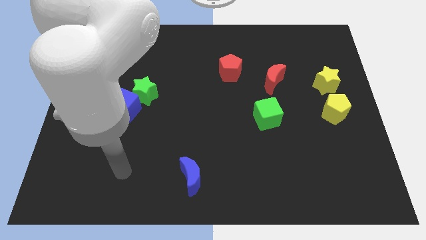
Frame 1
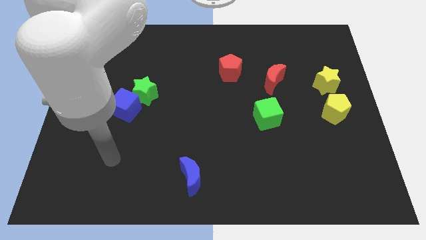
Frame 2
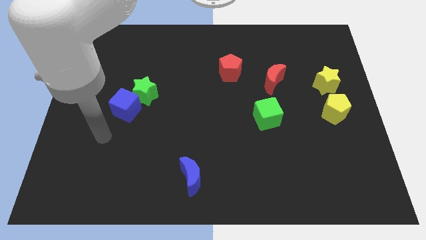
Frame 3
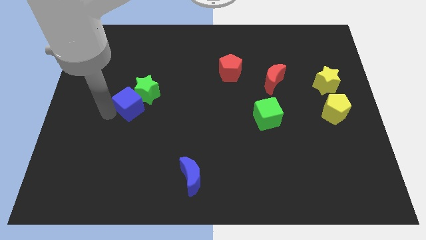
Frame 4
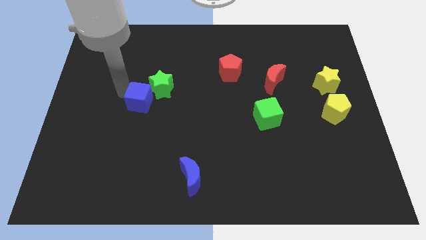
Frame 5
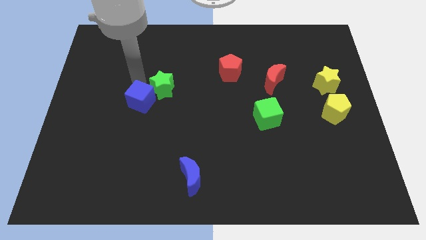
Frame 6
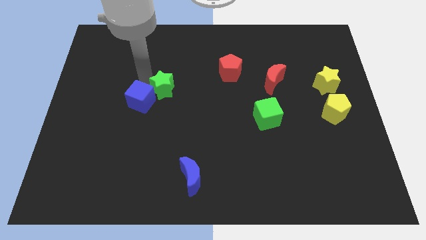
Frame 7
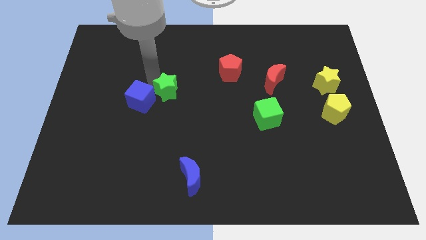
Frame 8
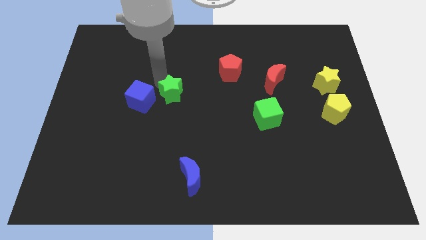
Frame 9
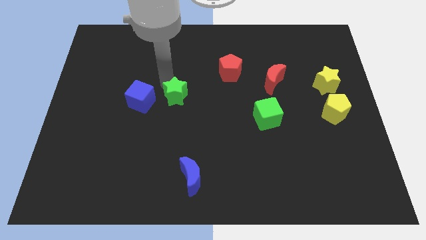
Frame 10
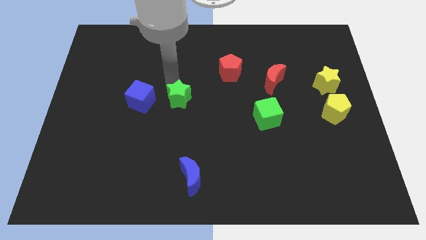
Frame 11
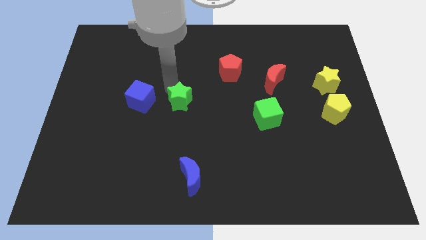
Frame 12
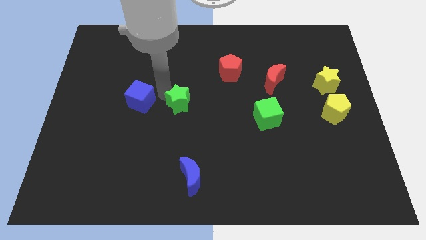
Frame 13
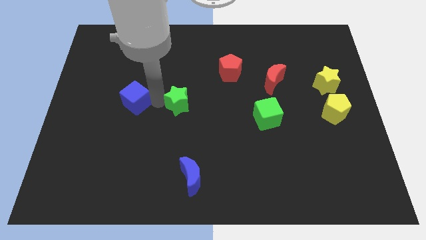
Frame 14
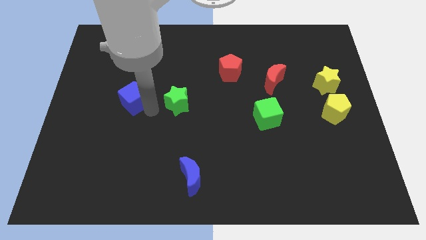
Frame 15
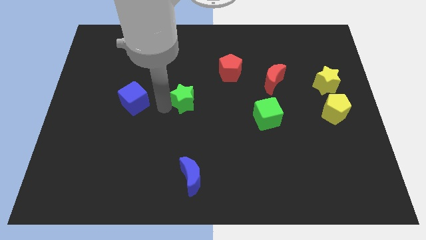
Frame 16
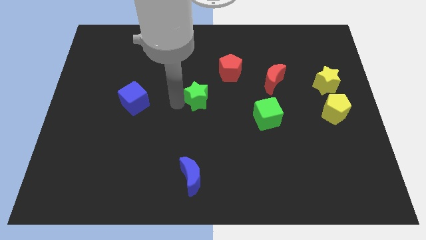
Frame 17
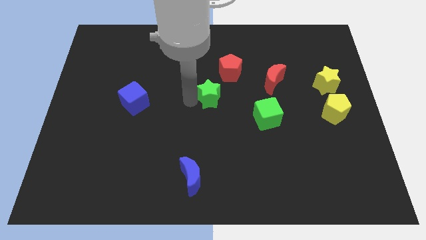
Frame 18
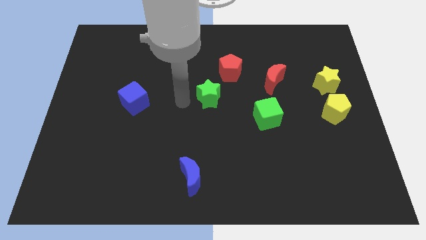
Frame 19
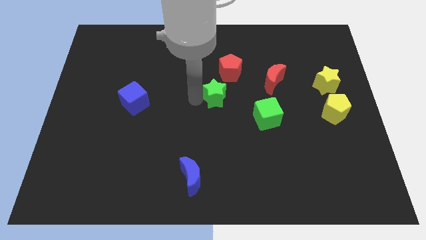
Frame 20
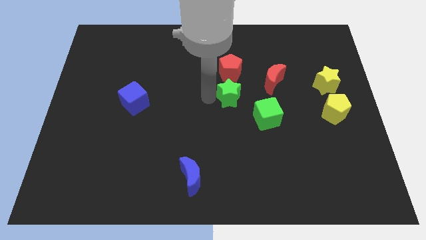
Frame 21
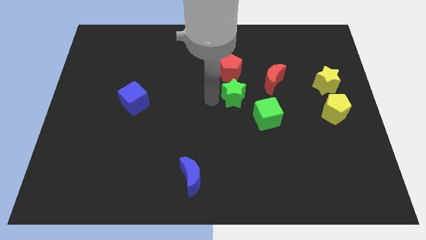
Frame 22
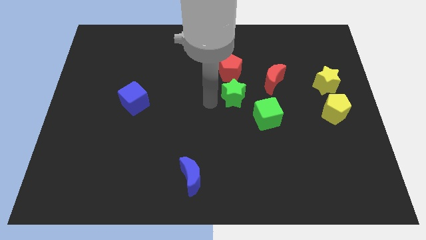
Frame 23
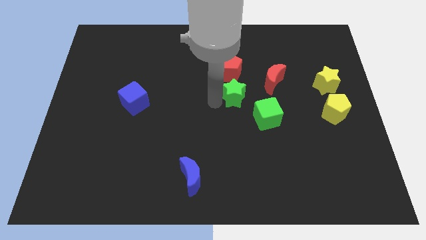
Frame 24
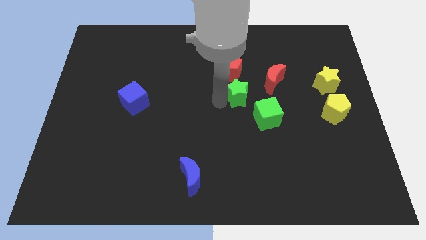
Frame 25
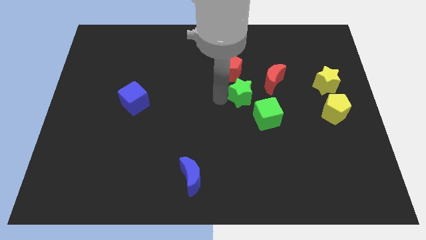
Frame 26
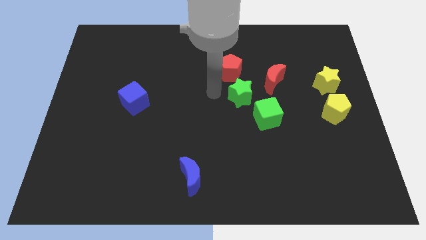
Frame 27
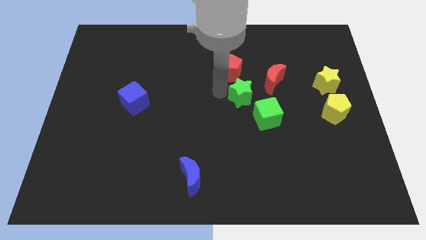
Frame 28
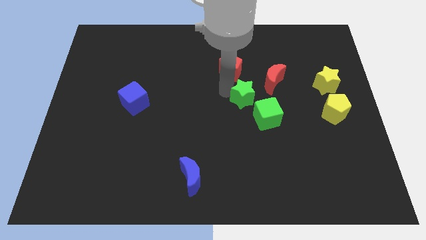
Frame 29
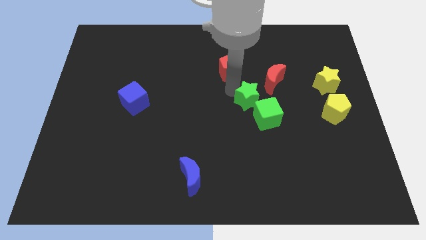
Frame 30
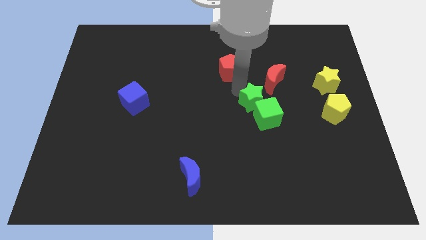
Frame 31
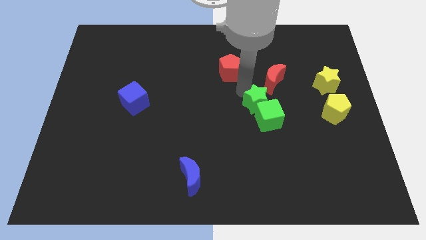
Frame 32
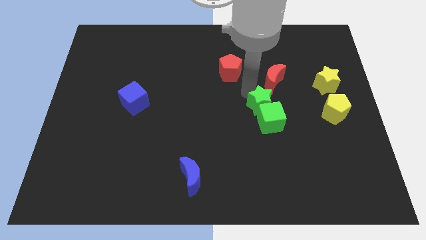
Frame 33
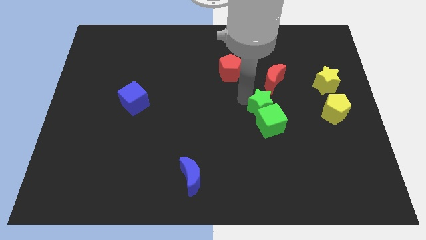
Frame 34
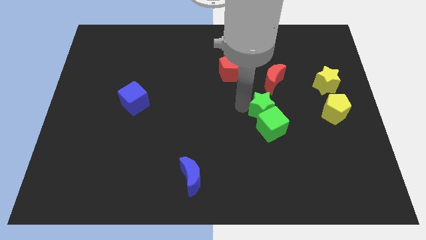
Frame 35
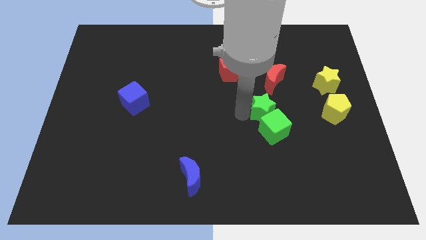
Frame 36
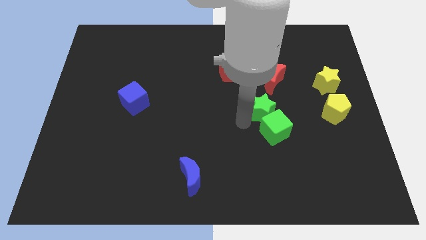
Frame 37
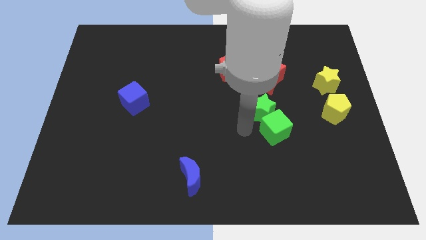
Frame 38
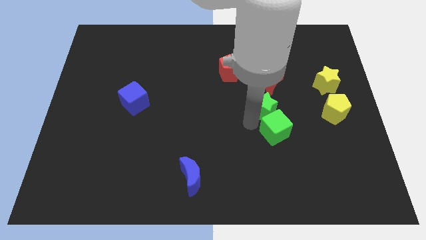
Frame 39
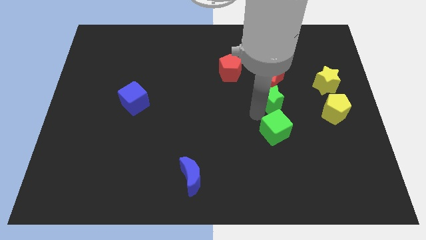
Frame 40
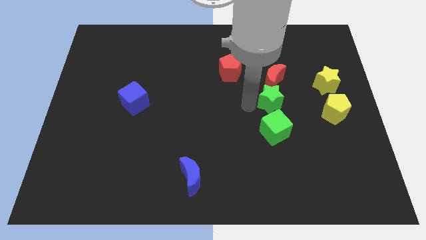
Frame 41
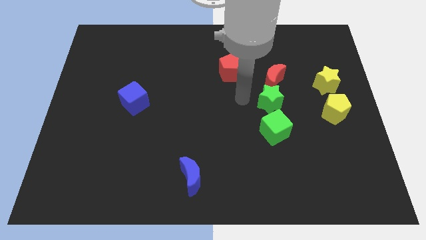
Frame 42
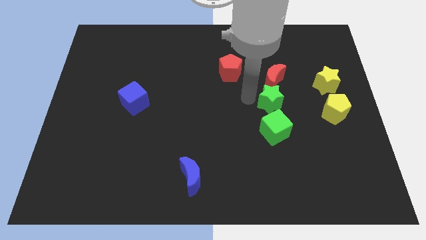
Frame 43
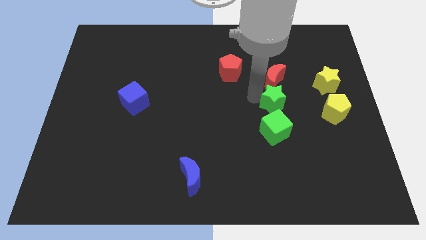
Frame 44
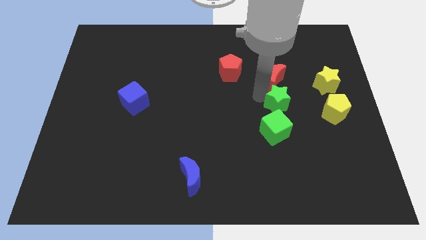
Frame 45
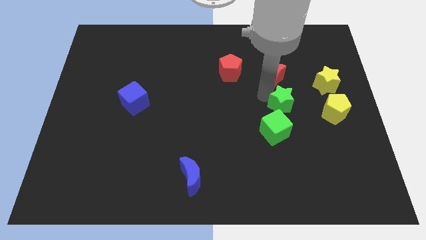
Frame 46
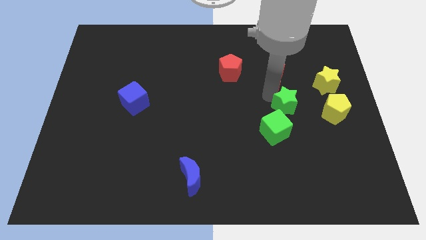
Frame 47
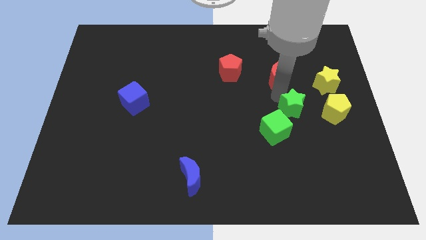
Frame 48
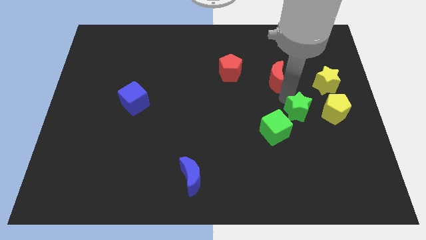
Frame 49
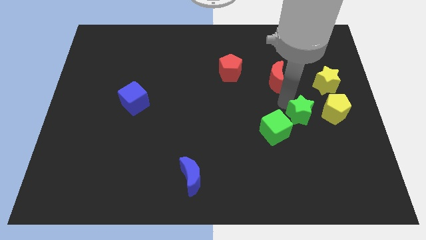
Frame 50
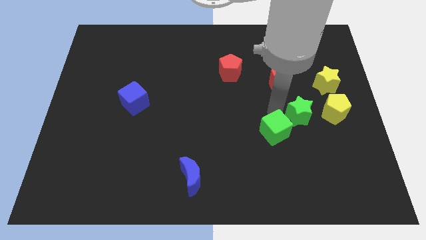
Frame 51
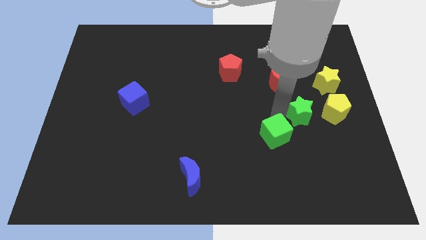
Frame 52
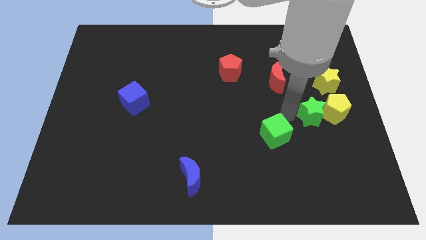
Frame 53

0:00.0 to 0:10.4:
put the green star to the yellow pentagon

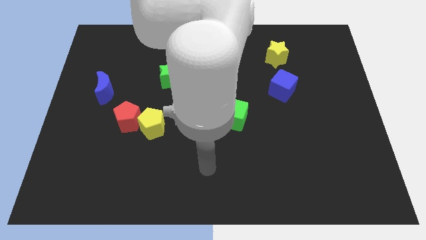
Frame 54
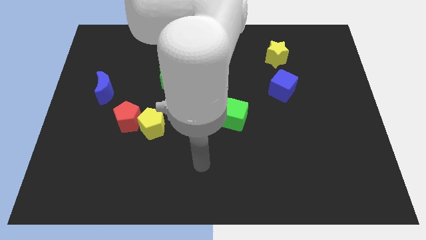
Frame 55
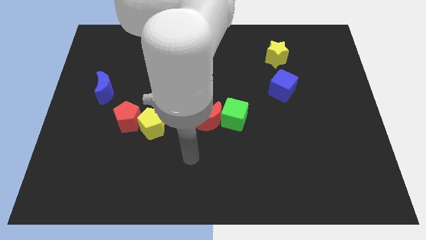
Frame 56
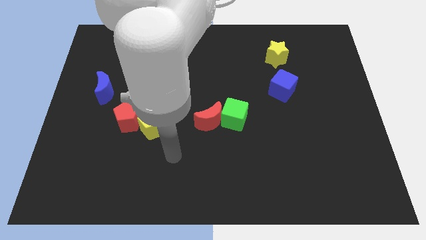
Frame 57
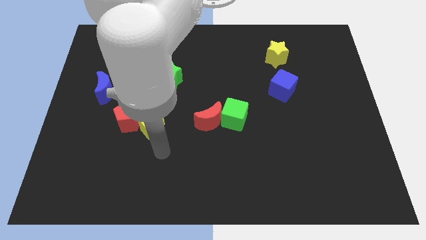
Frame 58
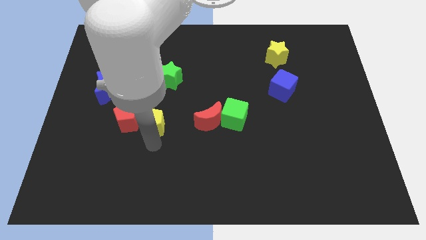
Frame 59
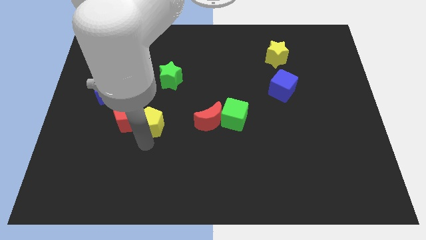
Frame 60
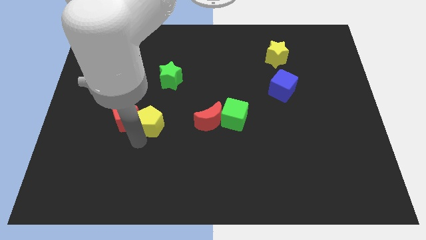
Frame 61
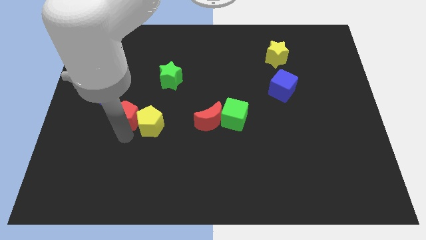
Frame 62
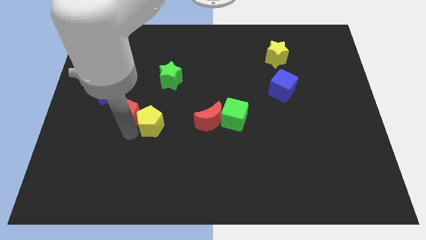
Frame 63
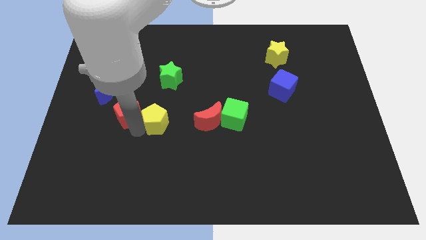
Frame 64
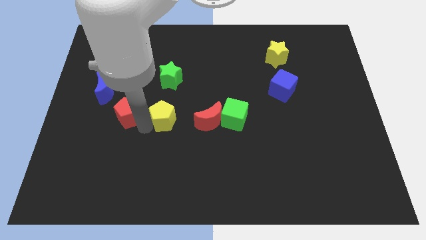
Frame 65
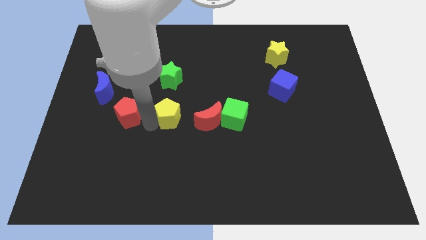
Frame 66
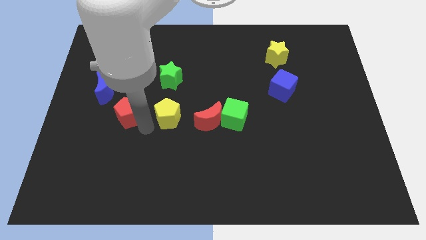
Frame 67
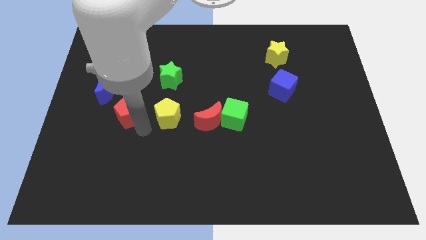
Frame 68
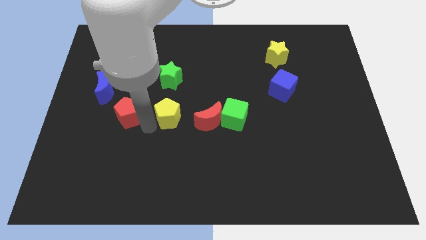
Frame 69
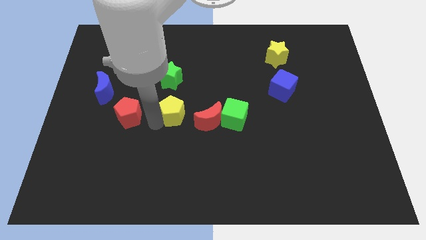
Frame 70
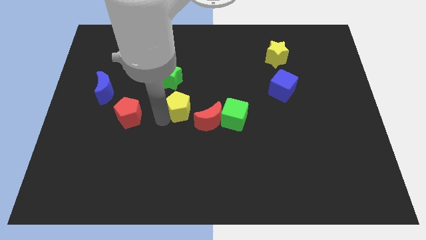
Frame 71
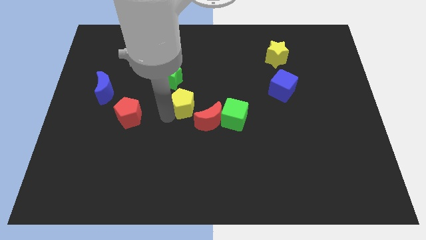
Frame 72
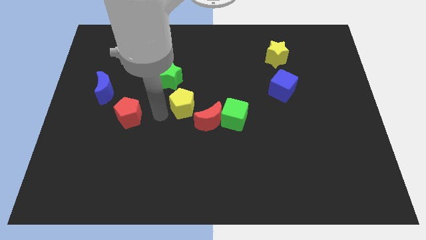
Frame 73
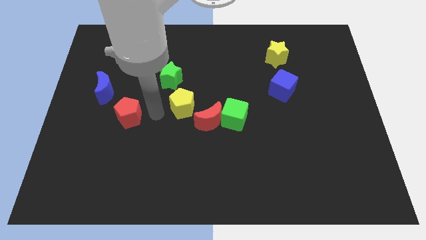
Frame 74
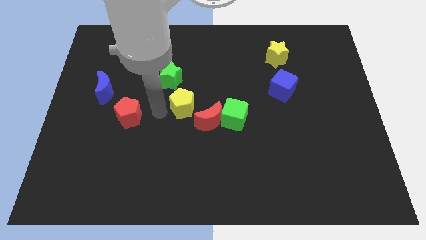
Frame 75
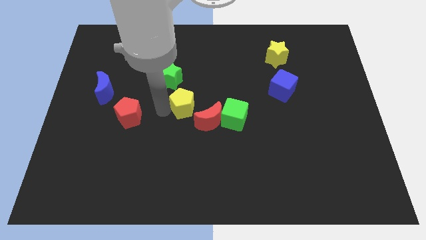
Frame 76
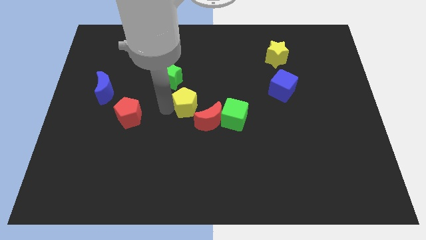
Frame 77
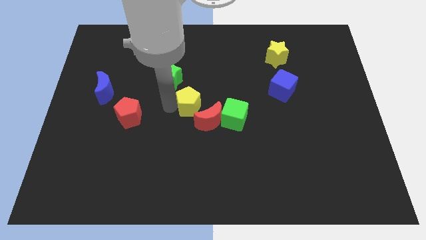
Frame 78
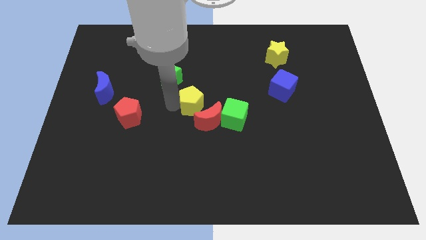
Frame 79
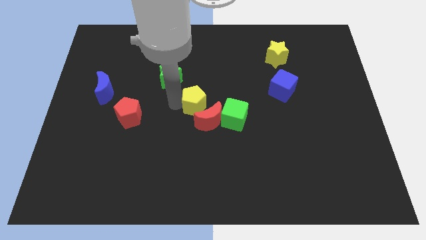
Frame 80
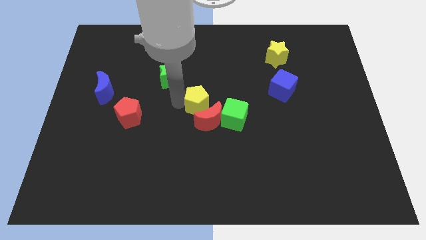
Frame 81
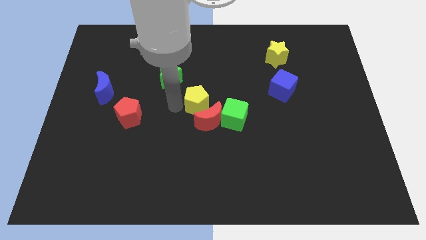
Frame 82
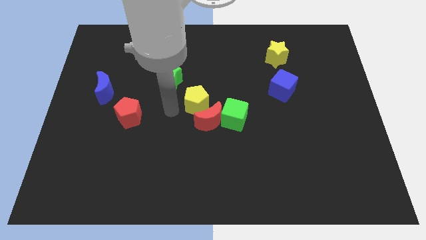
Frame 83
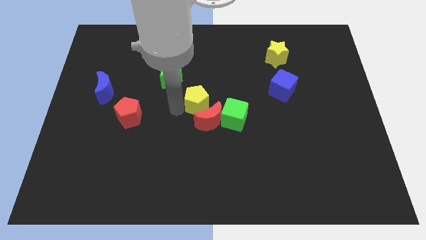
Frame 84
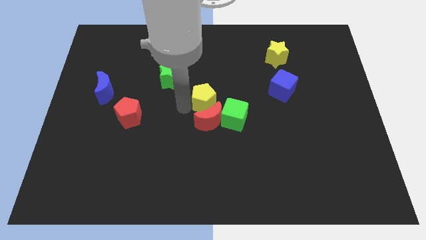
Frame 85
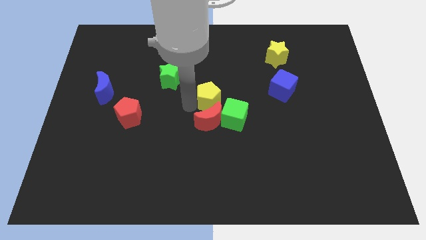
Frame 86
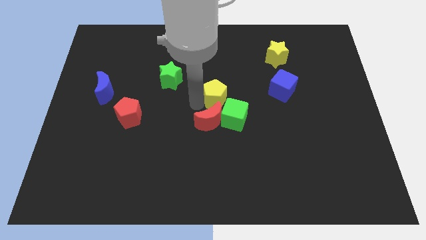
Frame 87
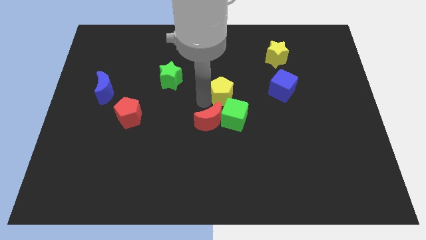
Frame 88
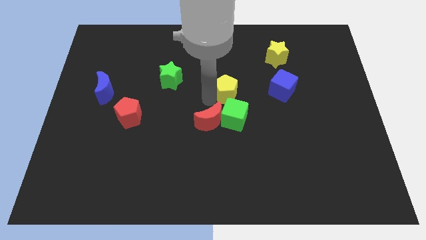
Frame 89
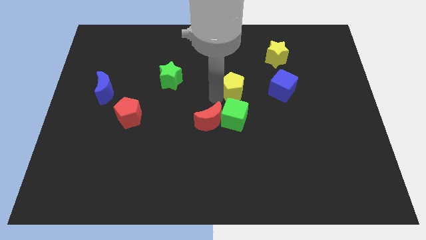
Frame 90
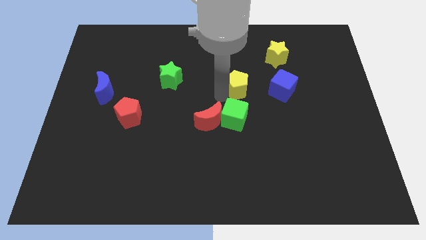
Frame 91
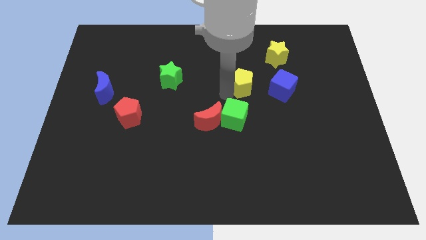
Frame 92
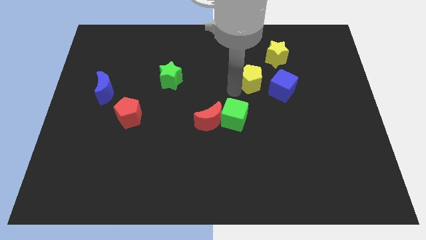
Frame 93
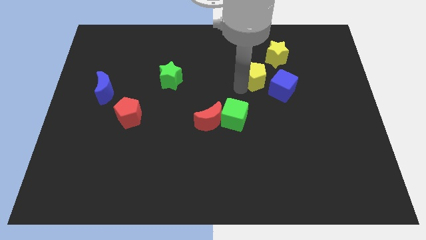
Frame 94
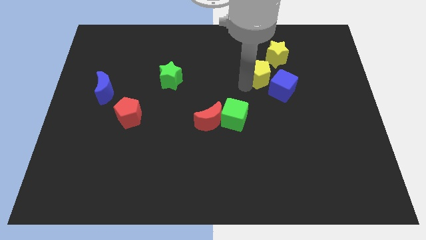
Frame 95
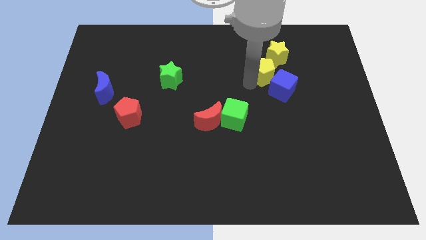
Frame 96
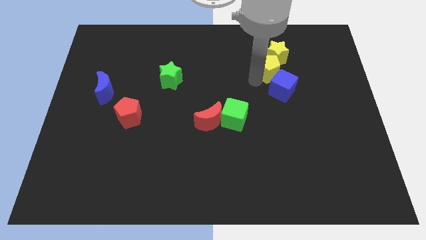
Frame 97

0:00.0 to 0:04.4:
slide the yellow pentagon close to the yellow star
